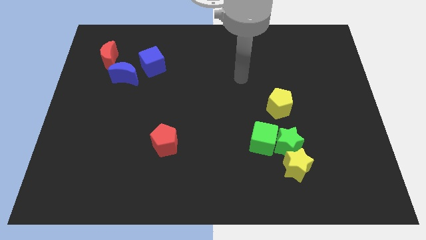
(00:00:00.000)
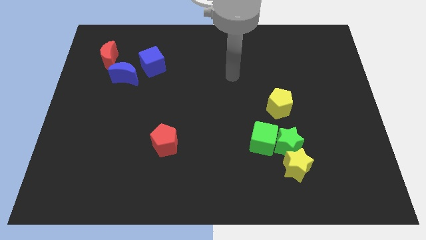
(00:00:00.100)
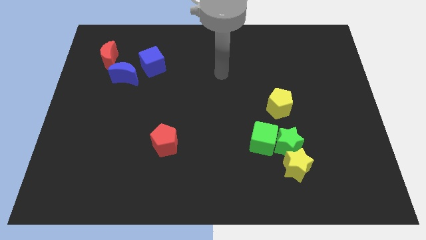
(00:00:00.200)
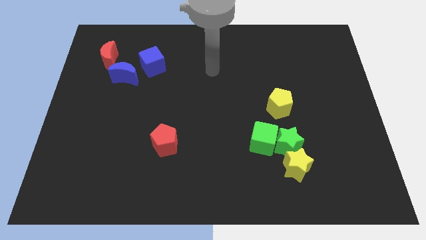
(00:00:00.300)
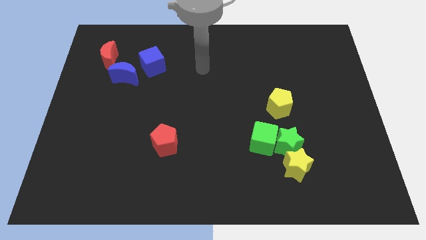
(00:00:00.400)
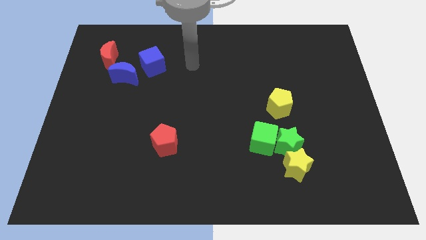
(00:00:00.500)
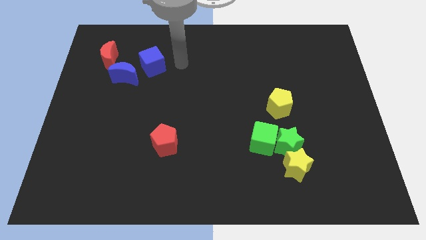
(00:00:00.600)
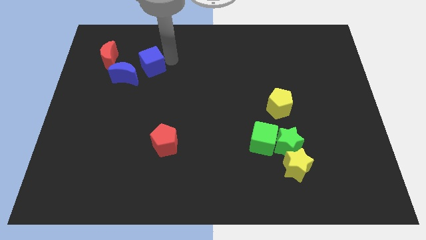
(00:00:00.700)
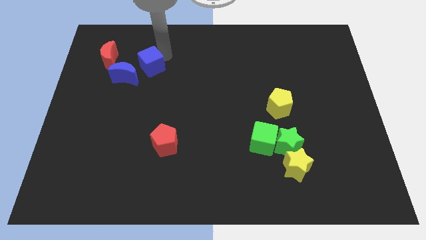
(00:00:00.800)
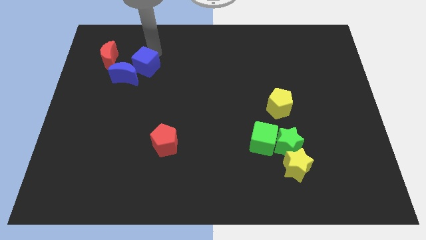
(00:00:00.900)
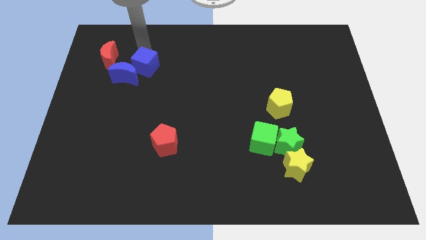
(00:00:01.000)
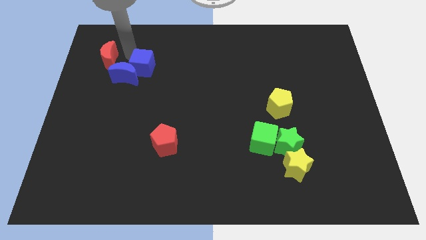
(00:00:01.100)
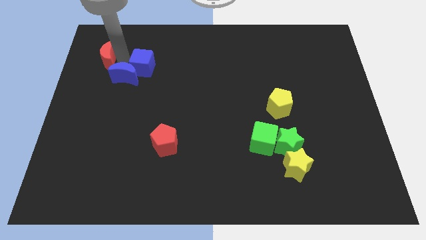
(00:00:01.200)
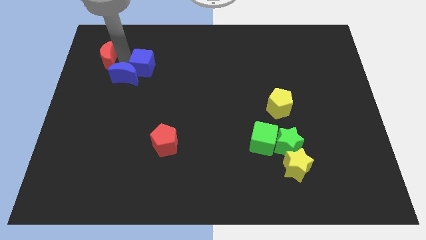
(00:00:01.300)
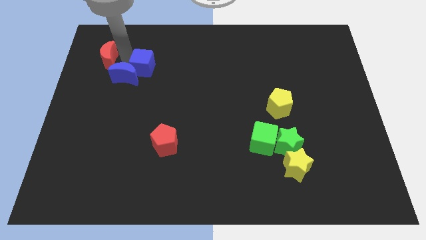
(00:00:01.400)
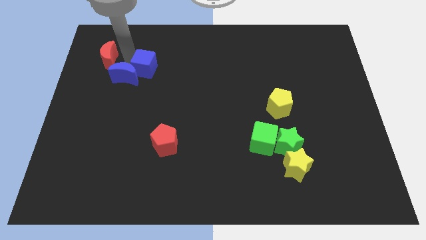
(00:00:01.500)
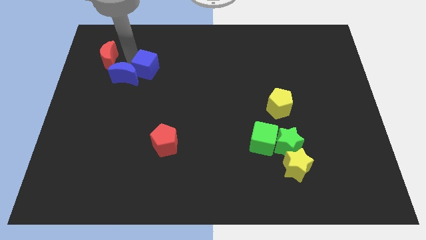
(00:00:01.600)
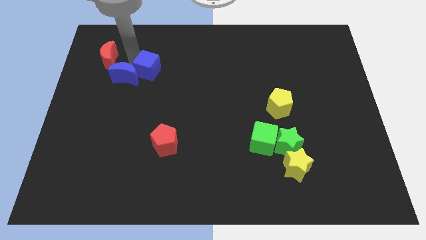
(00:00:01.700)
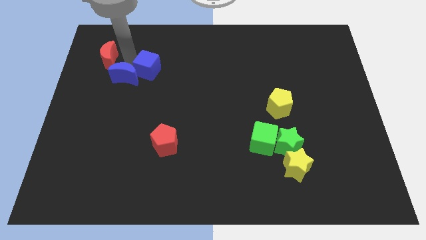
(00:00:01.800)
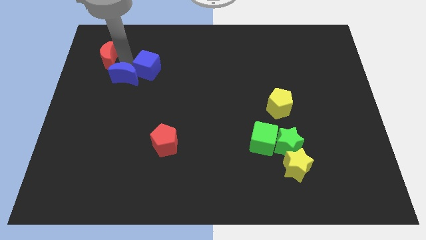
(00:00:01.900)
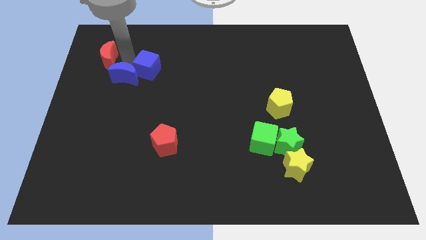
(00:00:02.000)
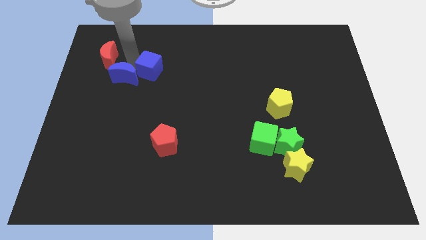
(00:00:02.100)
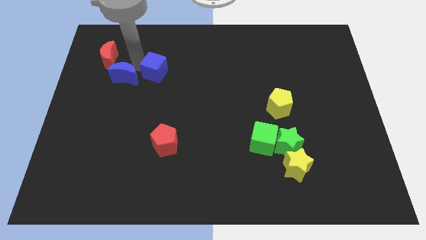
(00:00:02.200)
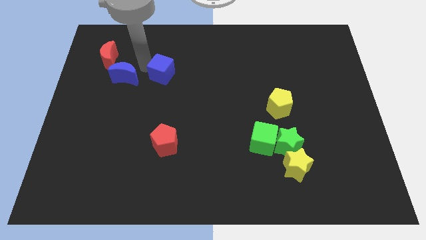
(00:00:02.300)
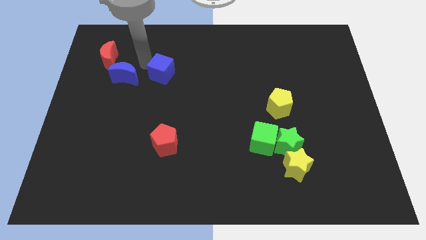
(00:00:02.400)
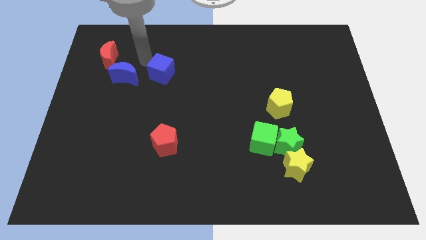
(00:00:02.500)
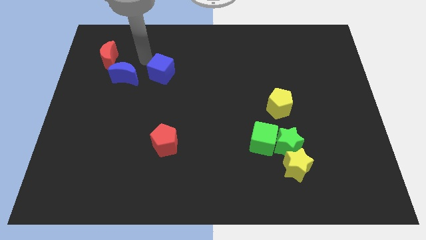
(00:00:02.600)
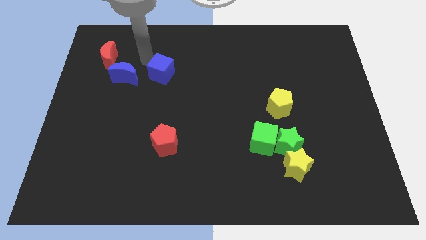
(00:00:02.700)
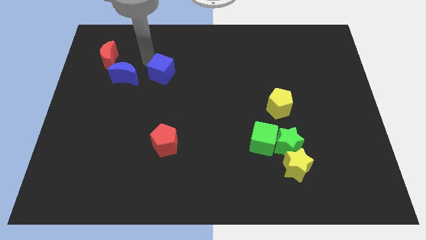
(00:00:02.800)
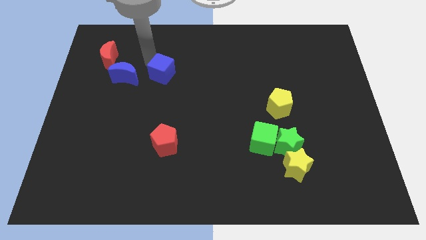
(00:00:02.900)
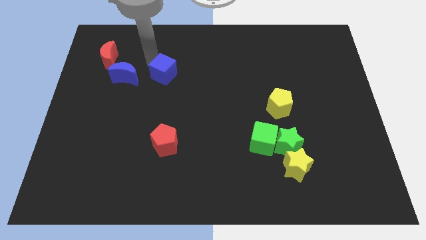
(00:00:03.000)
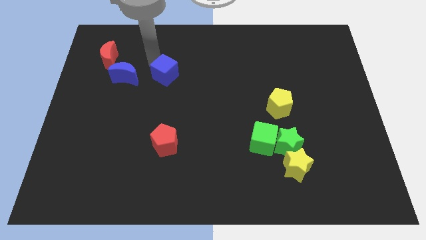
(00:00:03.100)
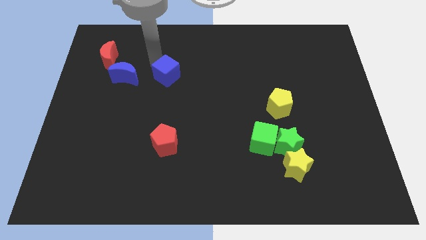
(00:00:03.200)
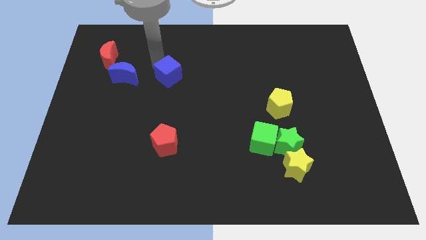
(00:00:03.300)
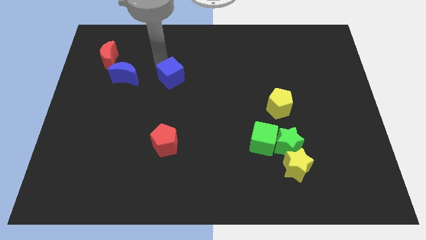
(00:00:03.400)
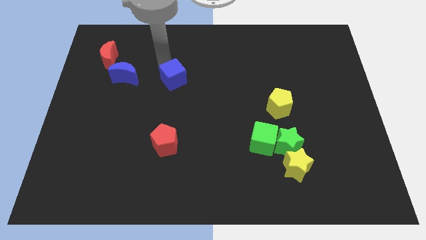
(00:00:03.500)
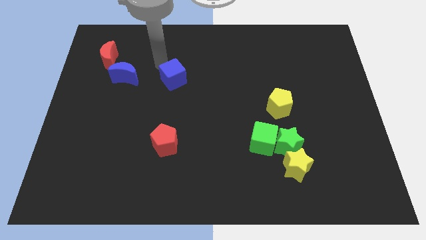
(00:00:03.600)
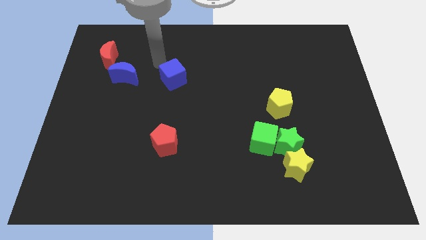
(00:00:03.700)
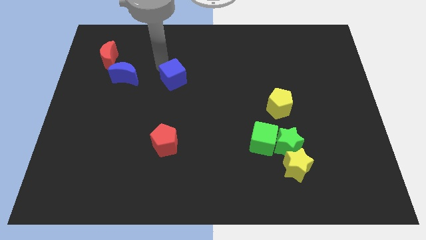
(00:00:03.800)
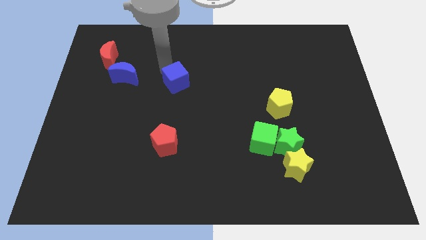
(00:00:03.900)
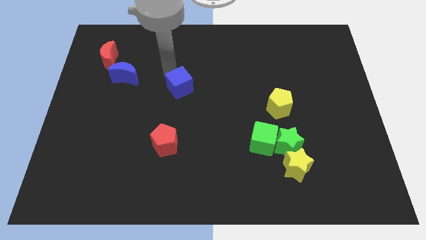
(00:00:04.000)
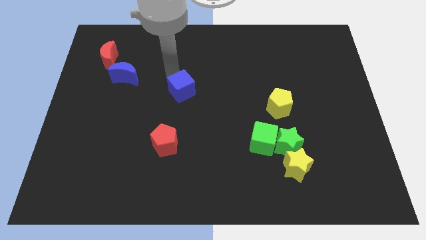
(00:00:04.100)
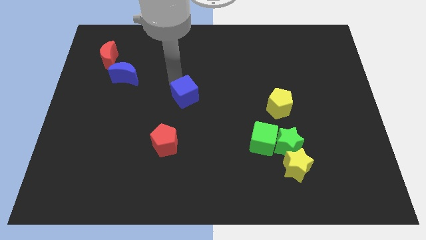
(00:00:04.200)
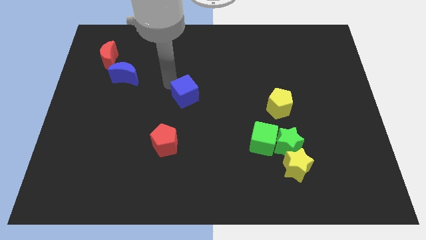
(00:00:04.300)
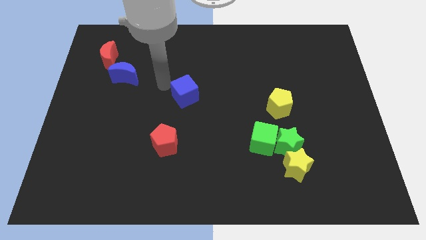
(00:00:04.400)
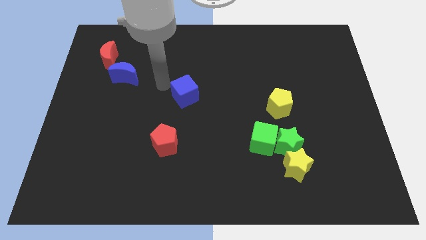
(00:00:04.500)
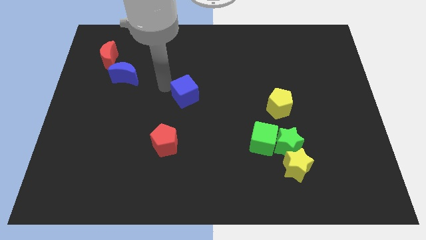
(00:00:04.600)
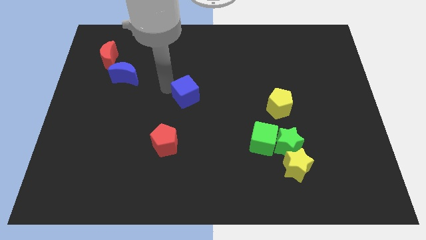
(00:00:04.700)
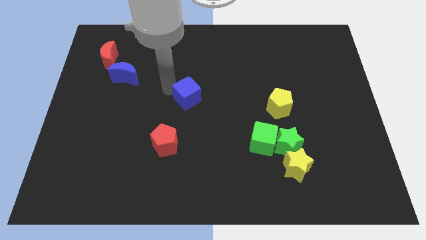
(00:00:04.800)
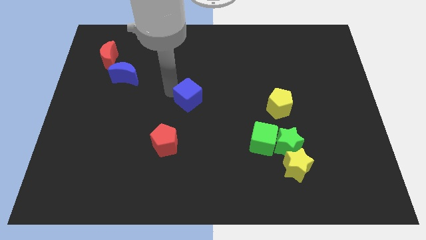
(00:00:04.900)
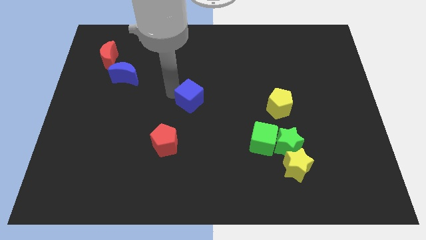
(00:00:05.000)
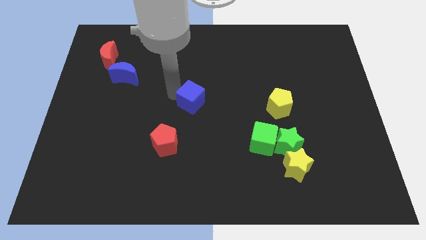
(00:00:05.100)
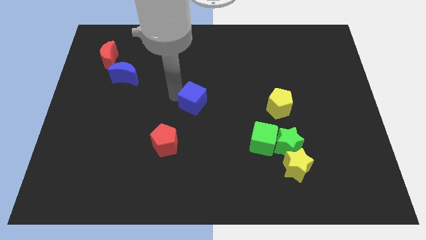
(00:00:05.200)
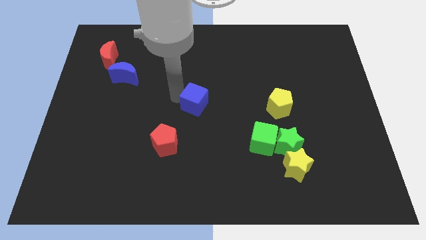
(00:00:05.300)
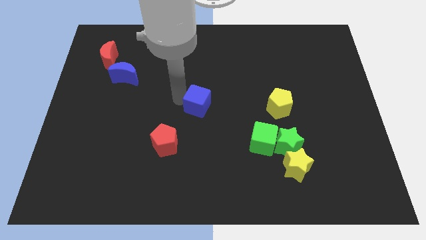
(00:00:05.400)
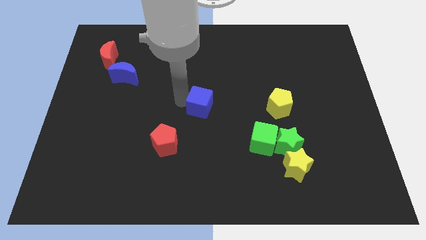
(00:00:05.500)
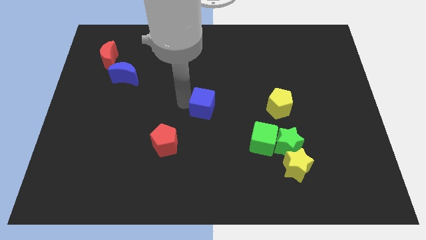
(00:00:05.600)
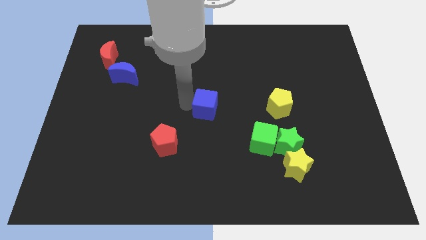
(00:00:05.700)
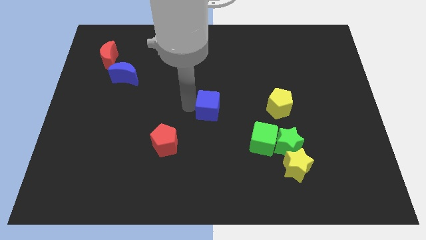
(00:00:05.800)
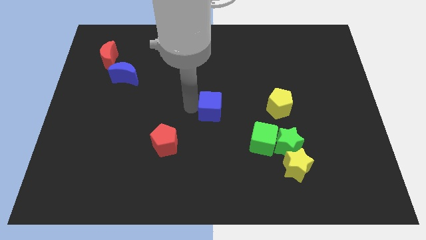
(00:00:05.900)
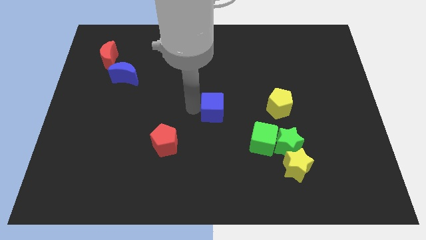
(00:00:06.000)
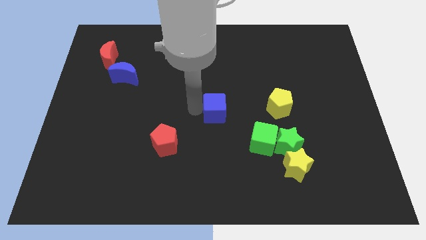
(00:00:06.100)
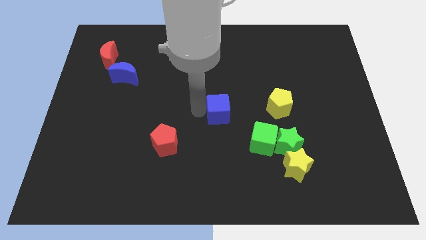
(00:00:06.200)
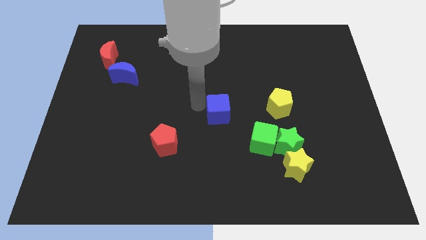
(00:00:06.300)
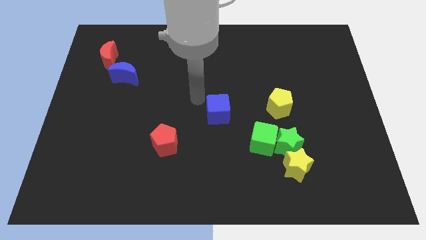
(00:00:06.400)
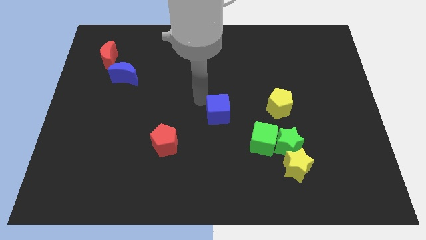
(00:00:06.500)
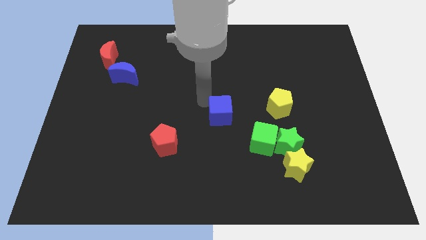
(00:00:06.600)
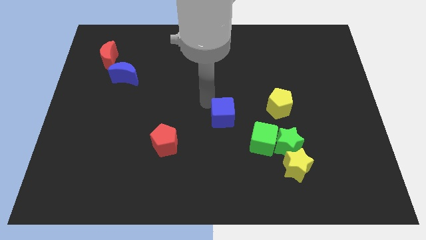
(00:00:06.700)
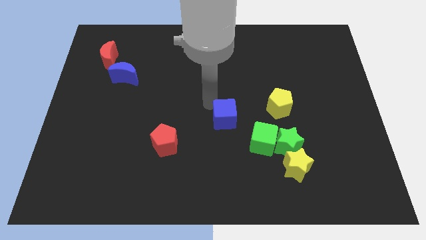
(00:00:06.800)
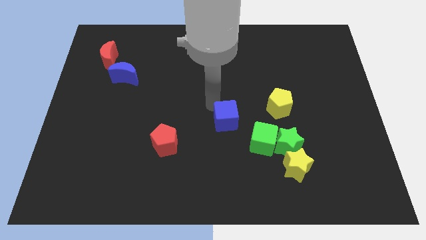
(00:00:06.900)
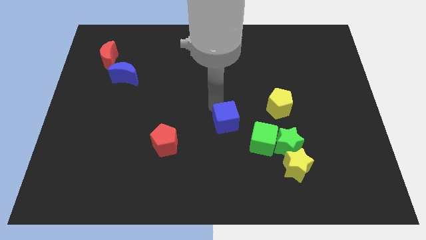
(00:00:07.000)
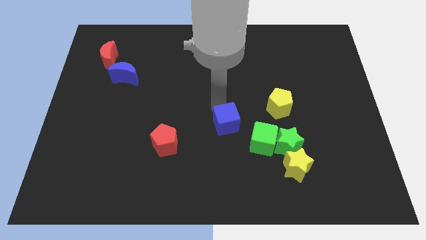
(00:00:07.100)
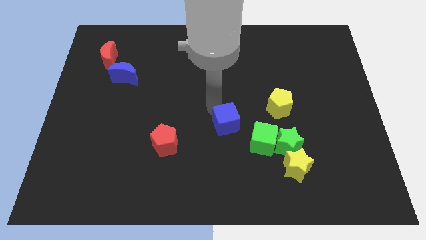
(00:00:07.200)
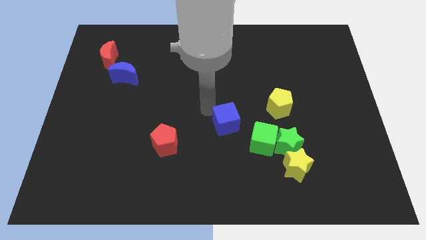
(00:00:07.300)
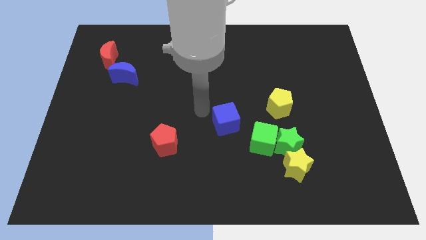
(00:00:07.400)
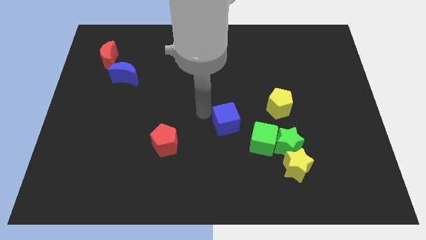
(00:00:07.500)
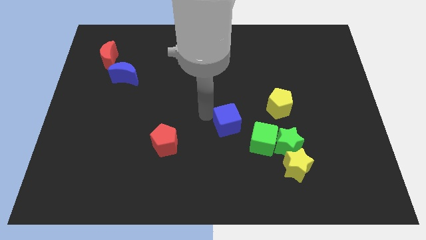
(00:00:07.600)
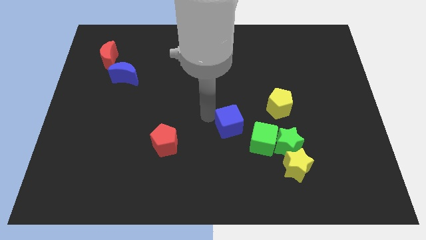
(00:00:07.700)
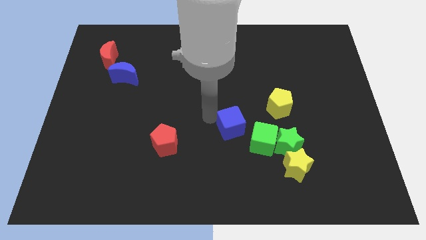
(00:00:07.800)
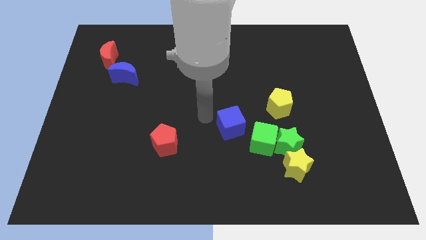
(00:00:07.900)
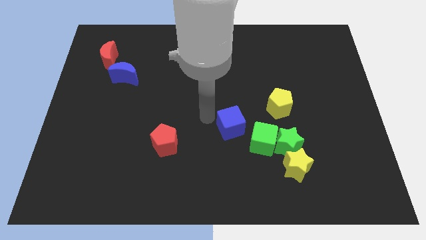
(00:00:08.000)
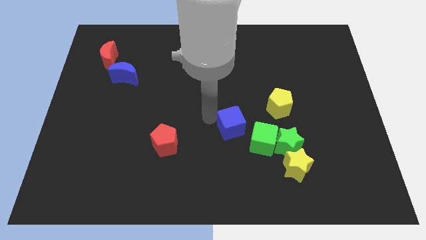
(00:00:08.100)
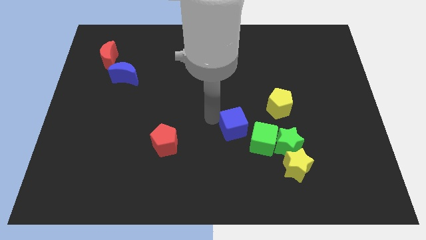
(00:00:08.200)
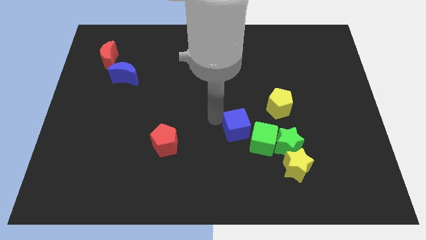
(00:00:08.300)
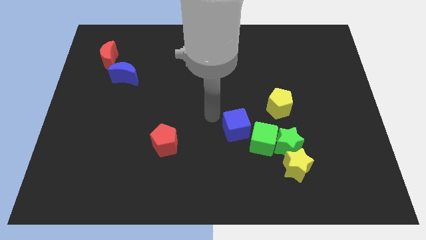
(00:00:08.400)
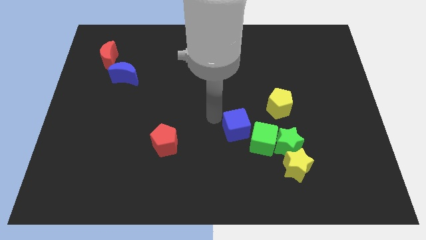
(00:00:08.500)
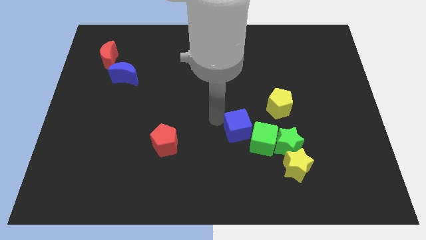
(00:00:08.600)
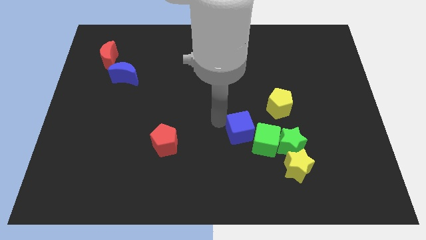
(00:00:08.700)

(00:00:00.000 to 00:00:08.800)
slide the blue cube to the green cube
